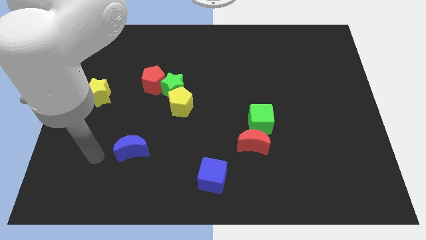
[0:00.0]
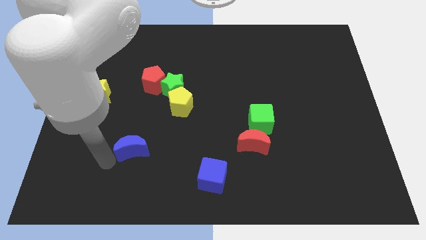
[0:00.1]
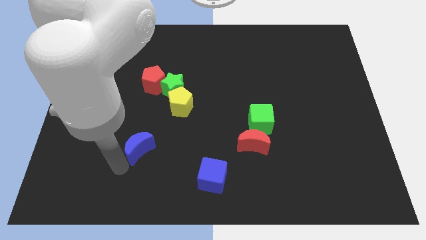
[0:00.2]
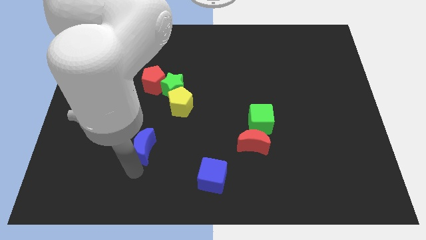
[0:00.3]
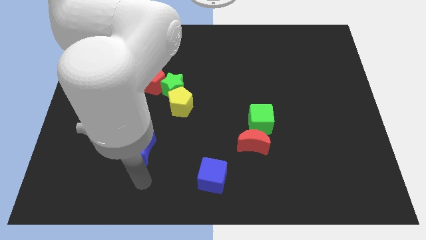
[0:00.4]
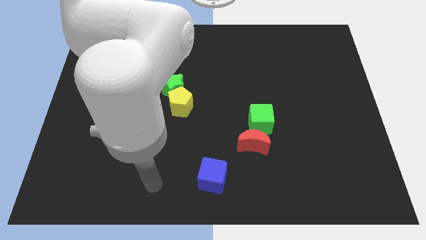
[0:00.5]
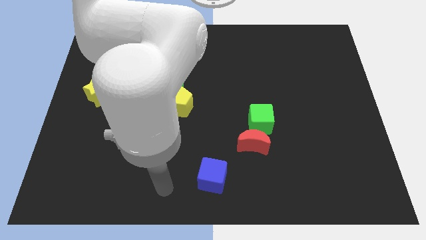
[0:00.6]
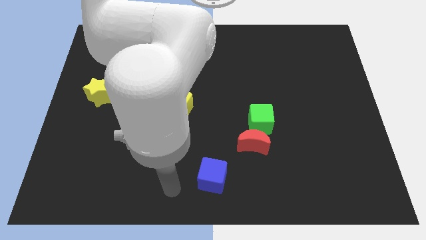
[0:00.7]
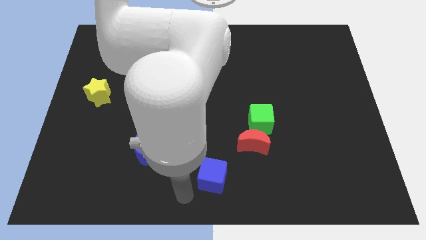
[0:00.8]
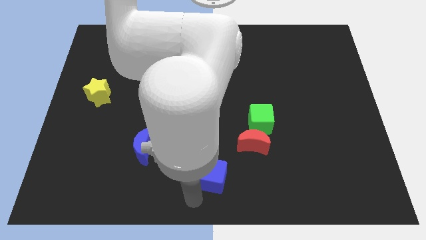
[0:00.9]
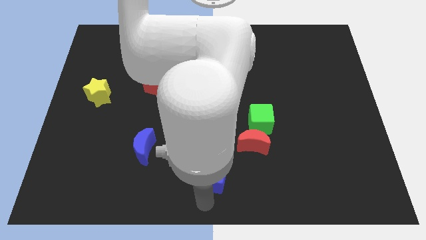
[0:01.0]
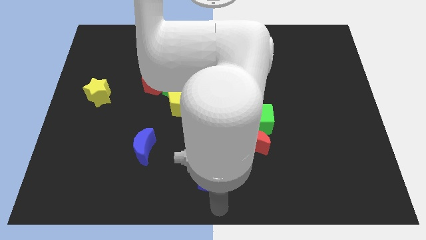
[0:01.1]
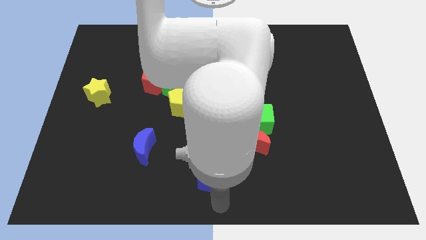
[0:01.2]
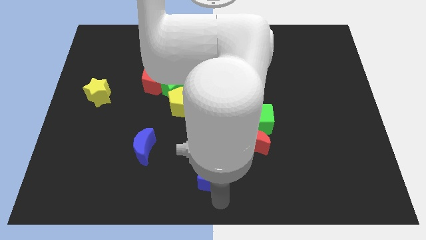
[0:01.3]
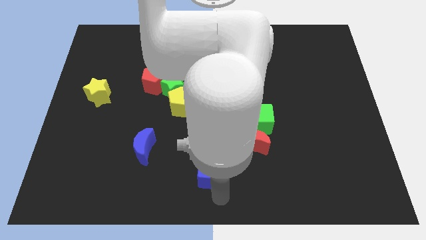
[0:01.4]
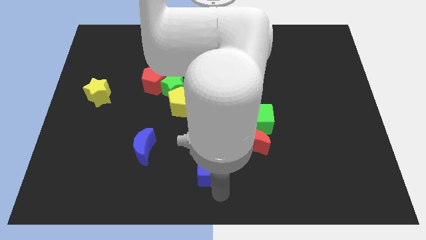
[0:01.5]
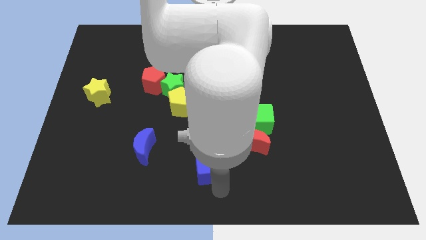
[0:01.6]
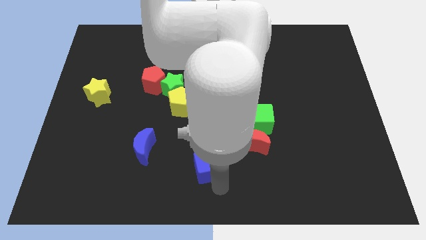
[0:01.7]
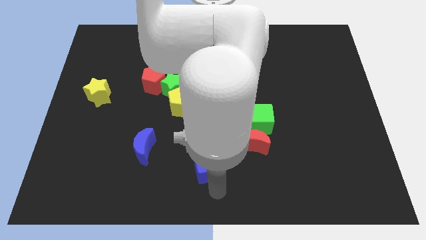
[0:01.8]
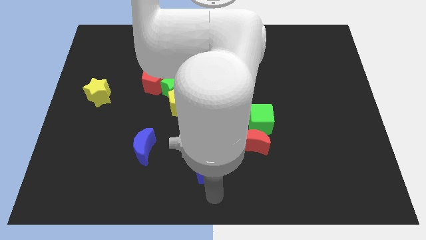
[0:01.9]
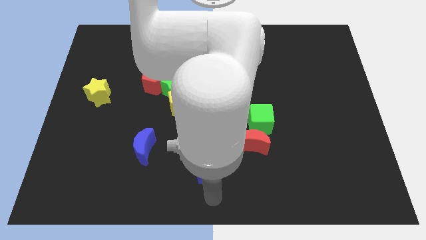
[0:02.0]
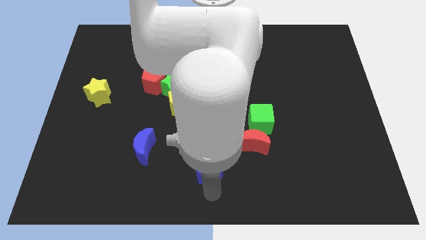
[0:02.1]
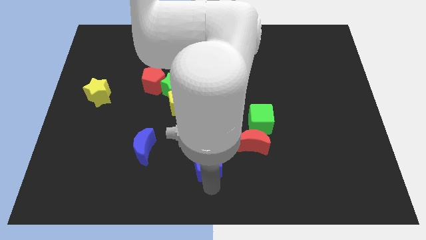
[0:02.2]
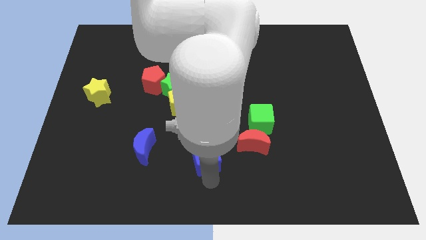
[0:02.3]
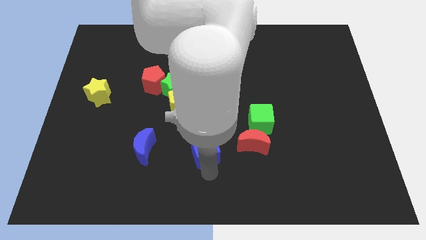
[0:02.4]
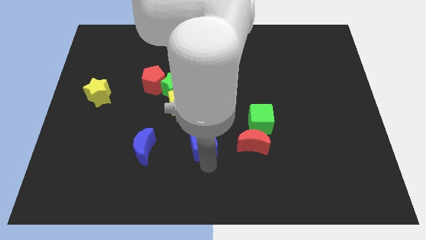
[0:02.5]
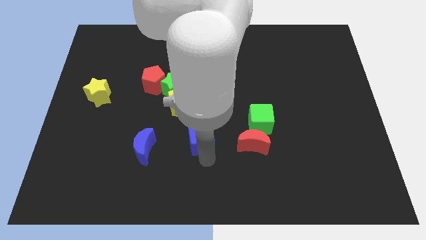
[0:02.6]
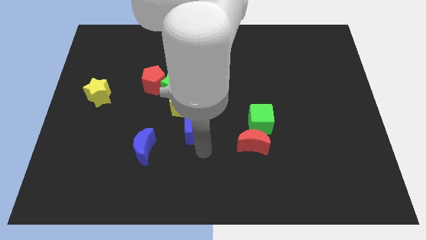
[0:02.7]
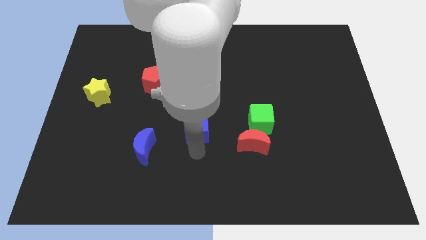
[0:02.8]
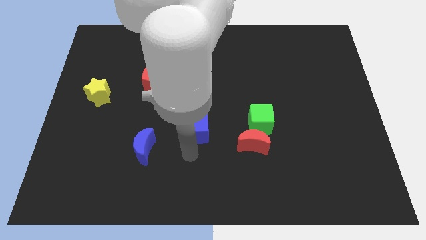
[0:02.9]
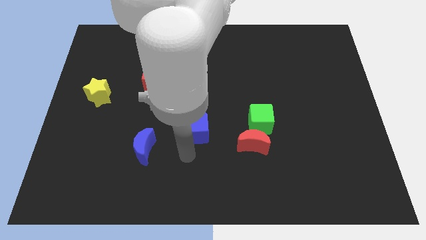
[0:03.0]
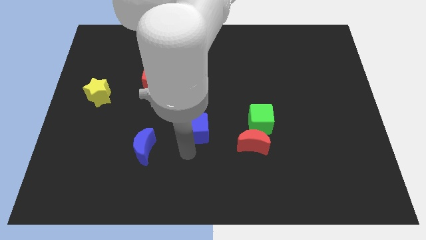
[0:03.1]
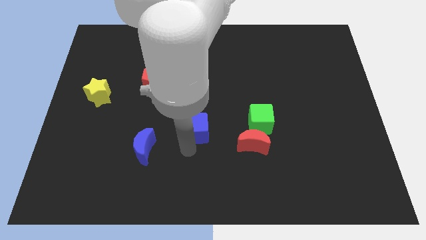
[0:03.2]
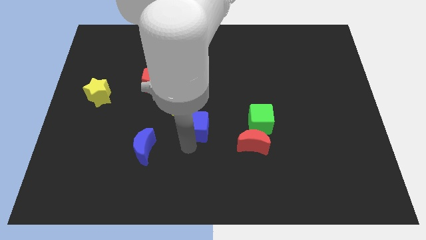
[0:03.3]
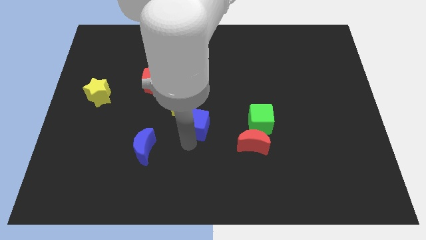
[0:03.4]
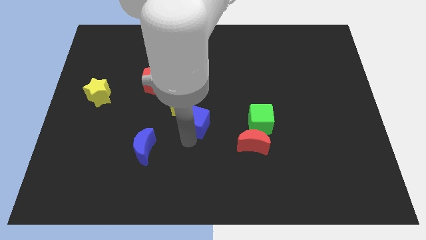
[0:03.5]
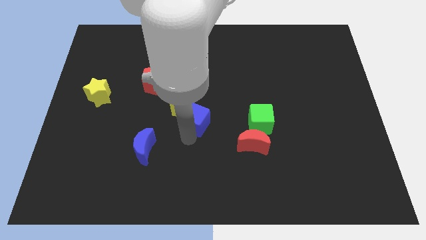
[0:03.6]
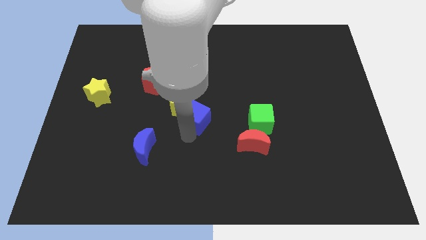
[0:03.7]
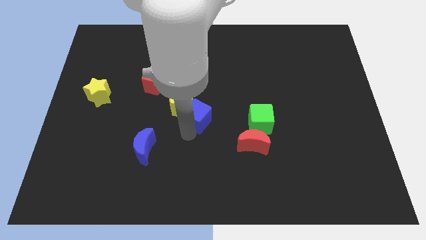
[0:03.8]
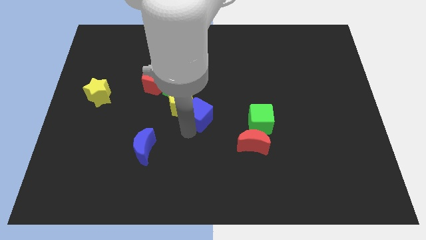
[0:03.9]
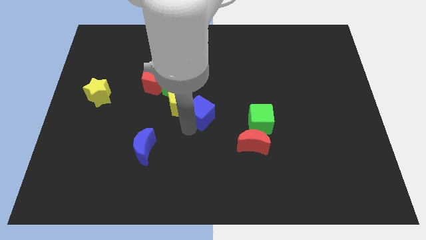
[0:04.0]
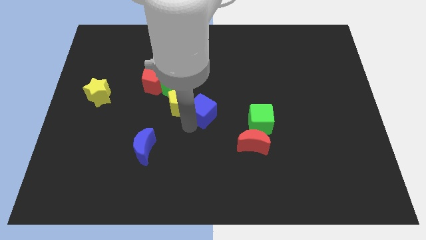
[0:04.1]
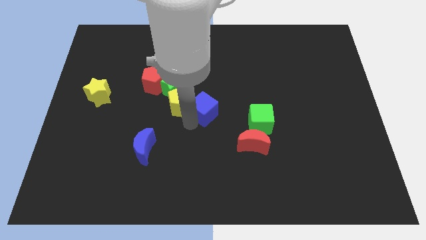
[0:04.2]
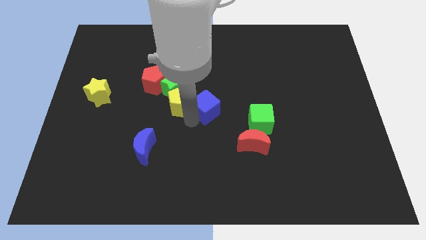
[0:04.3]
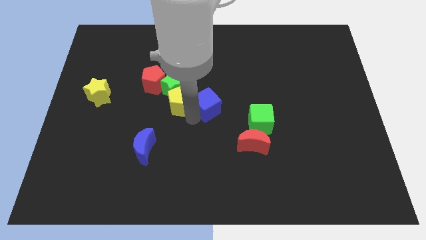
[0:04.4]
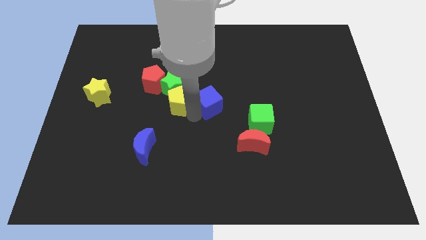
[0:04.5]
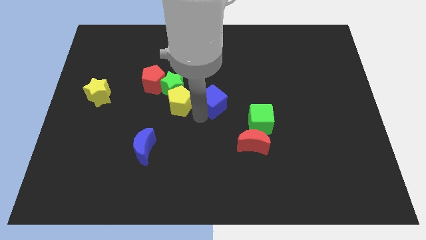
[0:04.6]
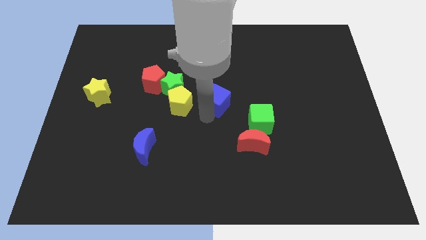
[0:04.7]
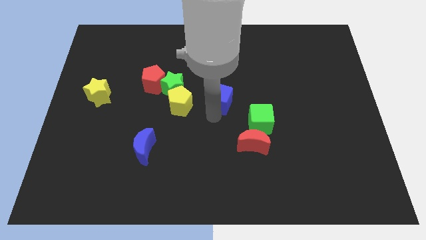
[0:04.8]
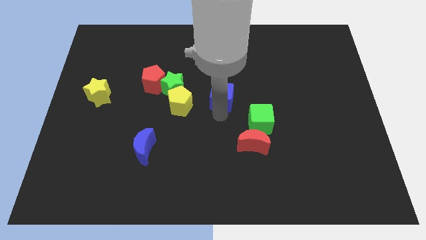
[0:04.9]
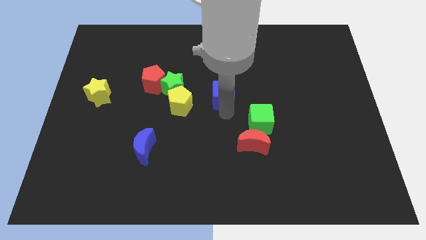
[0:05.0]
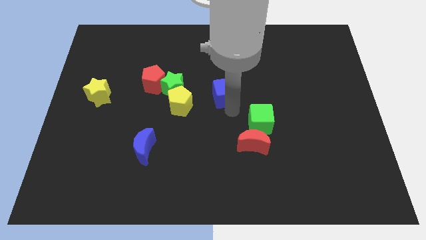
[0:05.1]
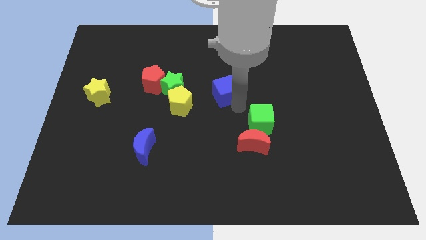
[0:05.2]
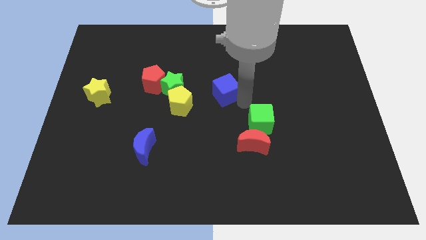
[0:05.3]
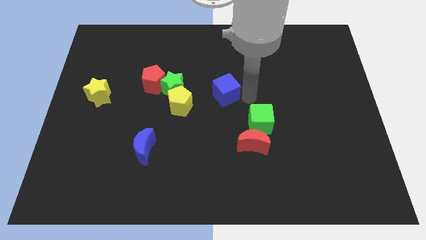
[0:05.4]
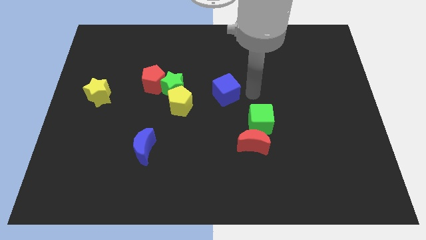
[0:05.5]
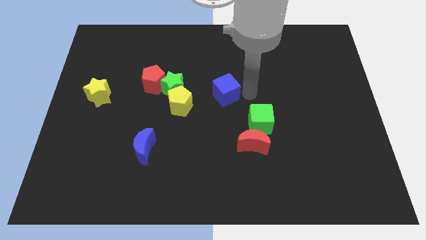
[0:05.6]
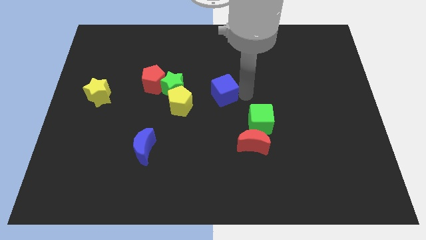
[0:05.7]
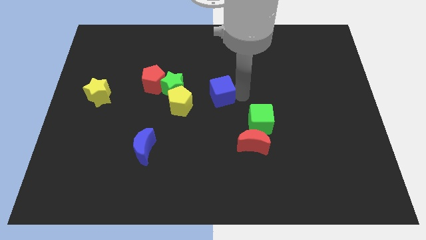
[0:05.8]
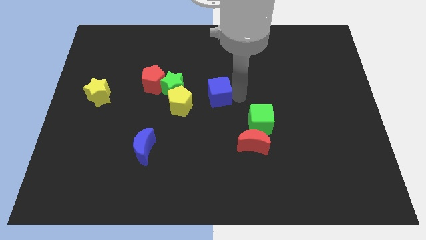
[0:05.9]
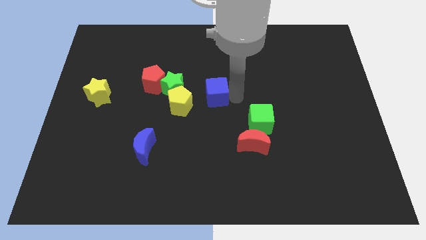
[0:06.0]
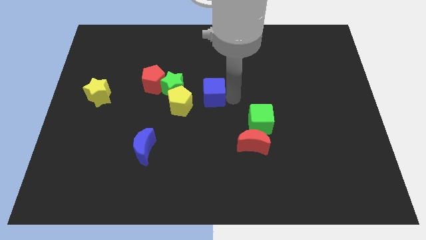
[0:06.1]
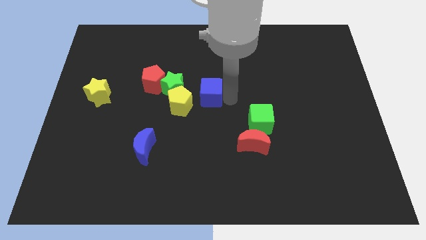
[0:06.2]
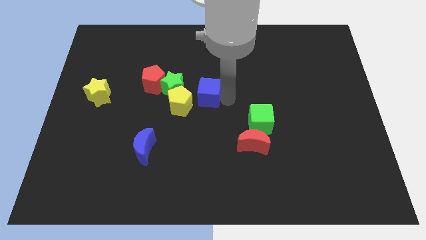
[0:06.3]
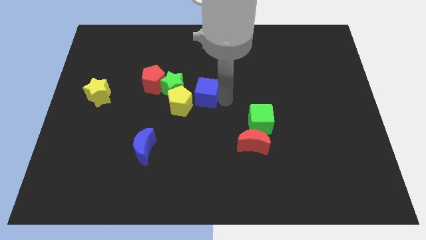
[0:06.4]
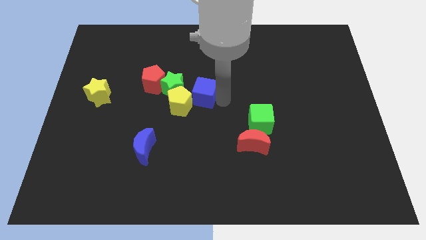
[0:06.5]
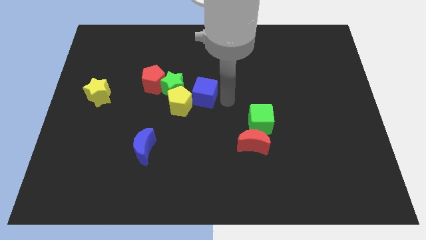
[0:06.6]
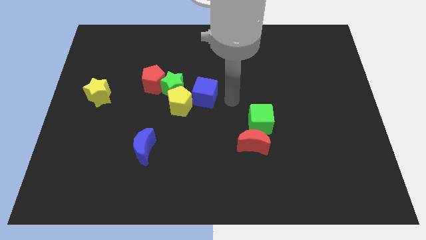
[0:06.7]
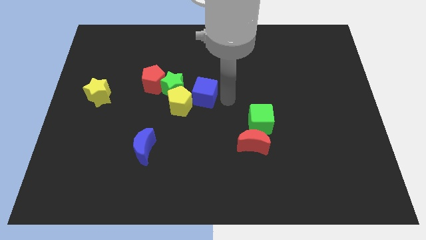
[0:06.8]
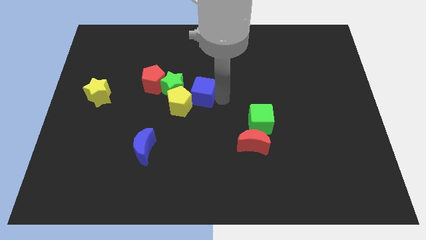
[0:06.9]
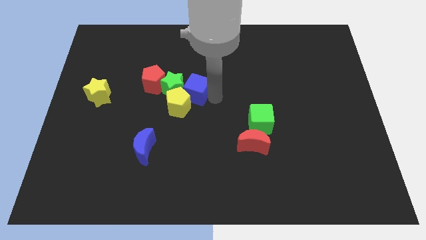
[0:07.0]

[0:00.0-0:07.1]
put the blue cube towards the green star
